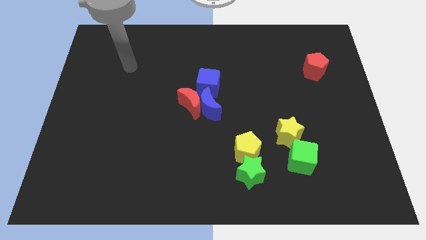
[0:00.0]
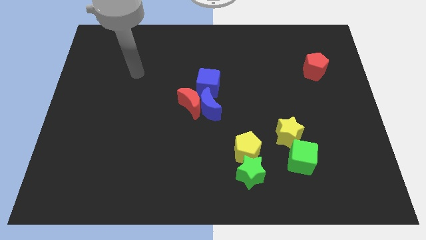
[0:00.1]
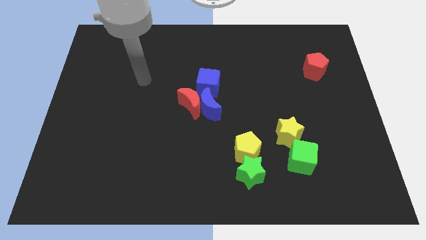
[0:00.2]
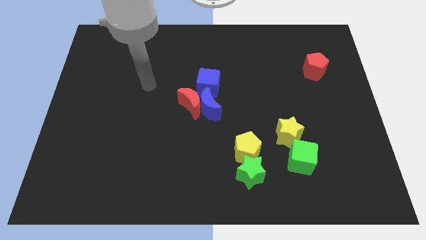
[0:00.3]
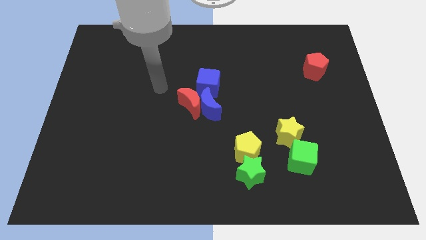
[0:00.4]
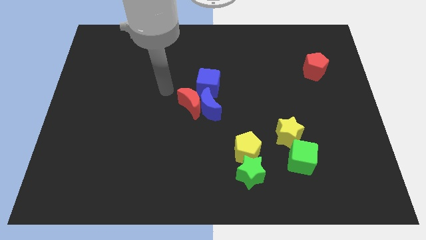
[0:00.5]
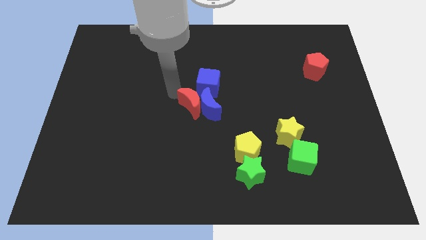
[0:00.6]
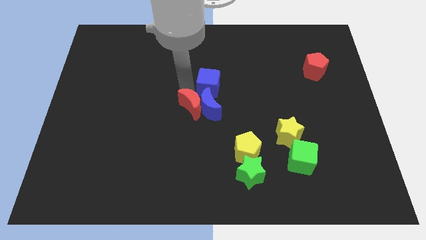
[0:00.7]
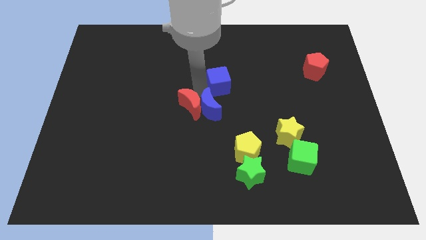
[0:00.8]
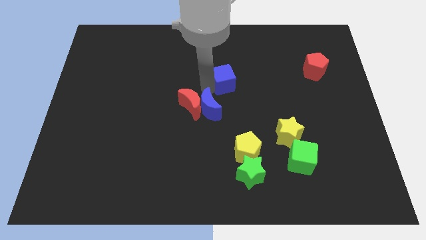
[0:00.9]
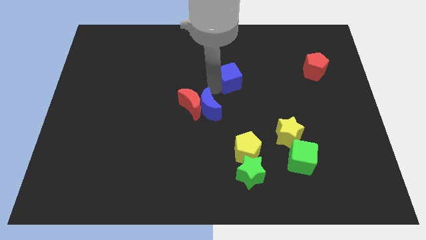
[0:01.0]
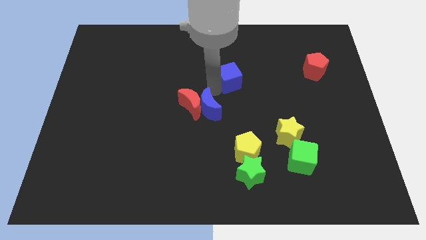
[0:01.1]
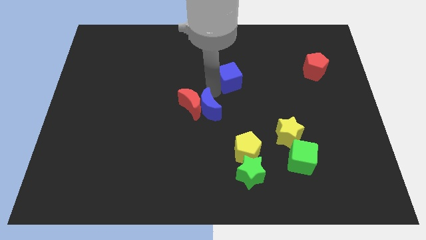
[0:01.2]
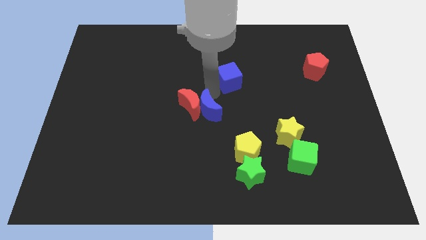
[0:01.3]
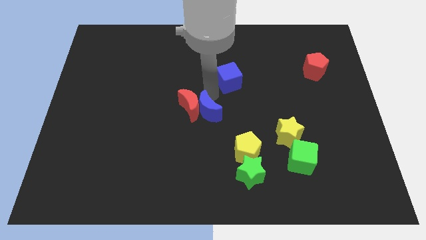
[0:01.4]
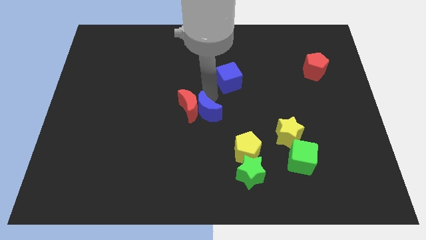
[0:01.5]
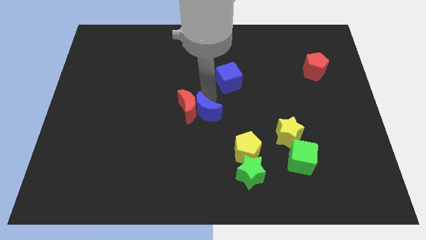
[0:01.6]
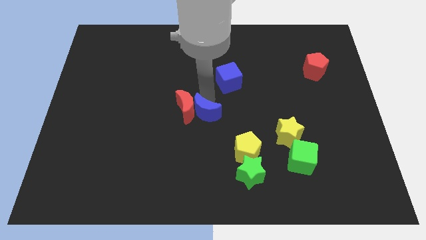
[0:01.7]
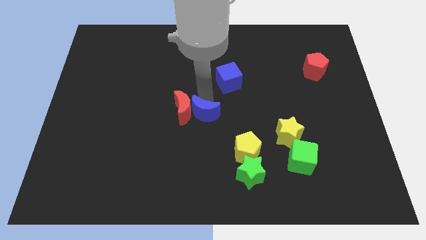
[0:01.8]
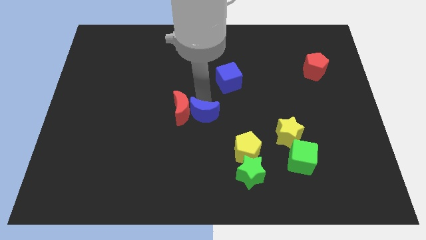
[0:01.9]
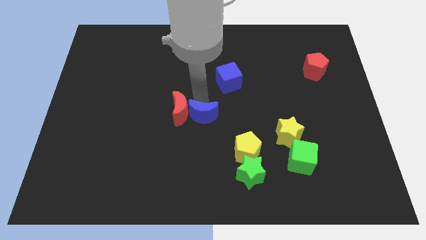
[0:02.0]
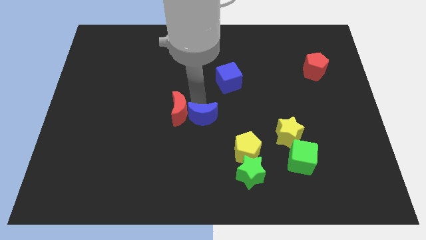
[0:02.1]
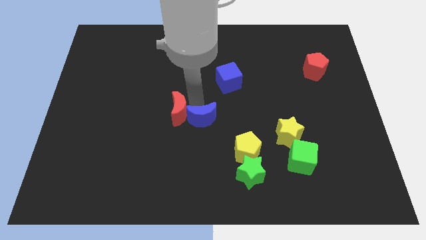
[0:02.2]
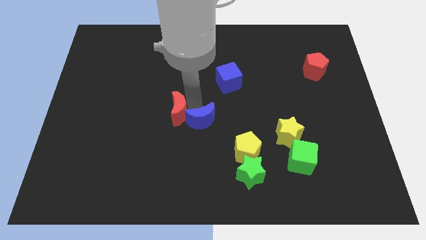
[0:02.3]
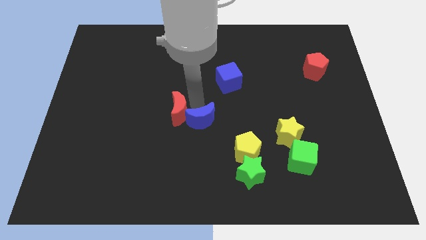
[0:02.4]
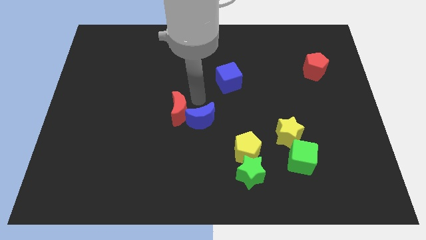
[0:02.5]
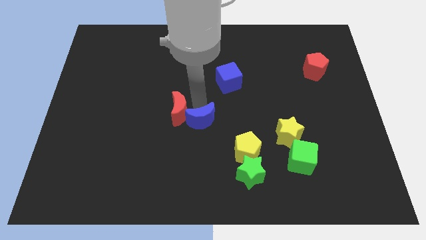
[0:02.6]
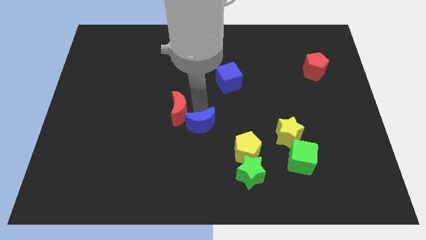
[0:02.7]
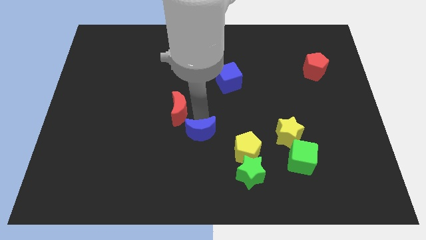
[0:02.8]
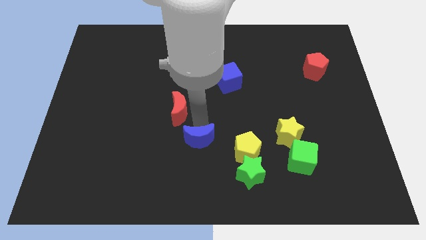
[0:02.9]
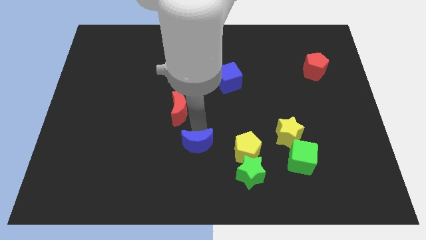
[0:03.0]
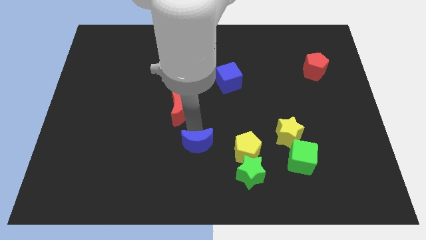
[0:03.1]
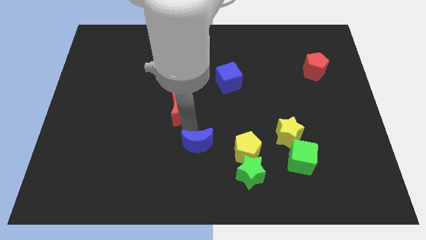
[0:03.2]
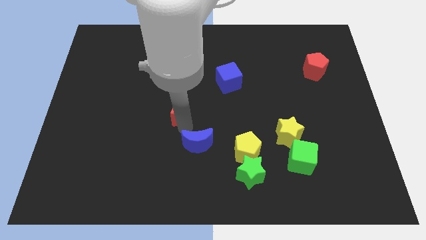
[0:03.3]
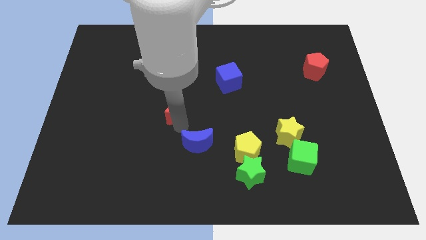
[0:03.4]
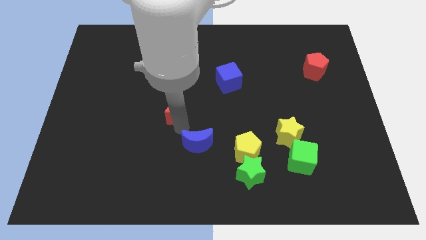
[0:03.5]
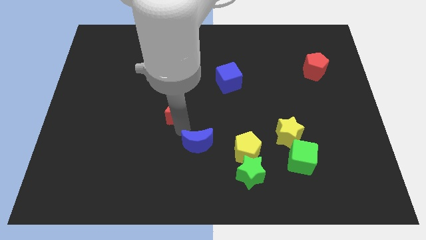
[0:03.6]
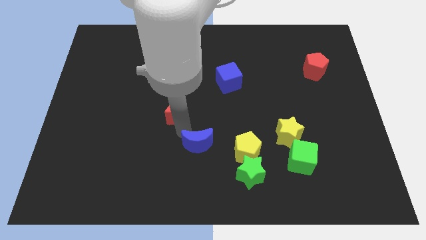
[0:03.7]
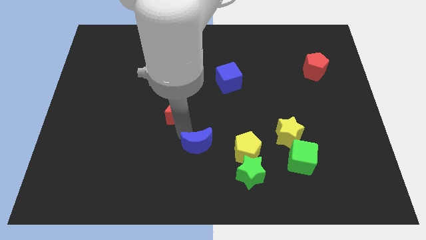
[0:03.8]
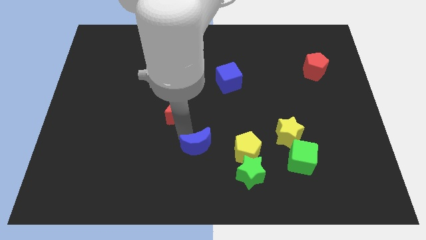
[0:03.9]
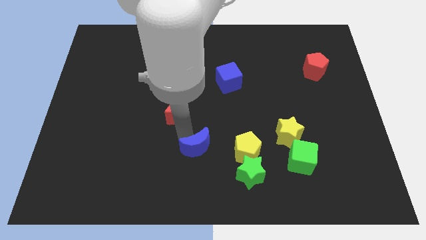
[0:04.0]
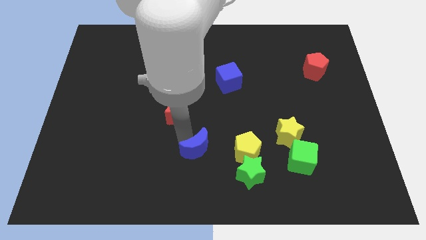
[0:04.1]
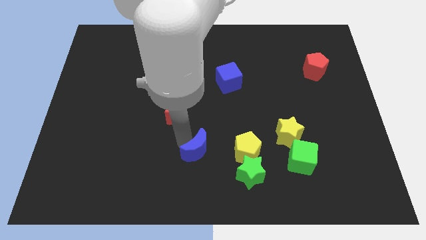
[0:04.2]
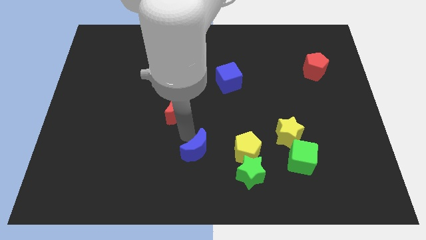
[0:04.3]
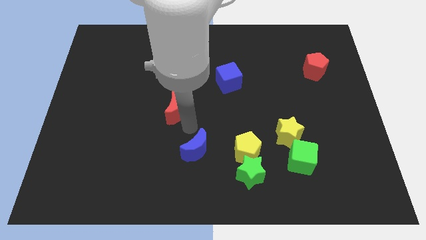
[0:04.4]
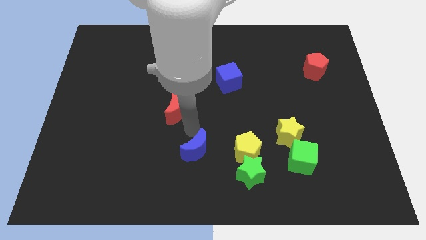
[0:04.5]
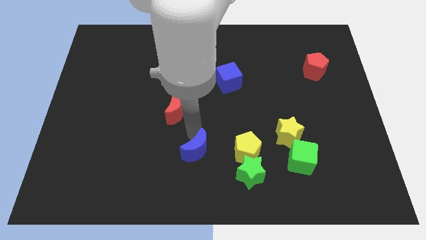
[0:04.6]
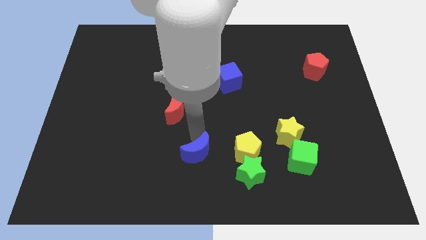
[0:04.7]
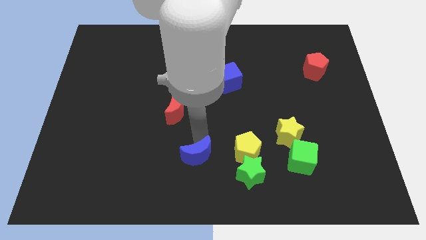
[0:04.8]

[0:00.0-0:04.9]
put the blue moon to the bottom side

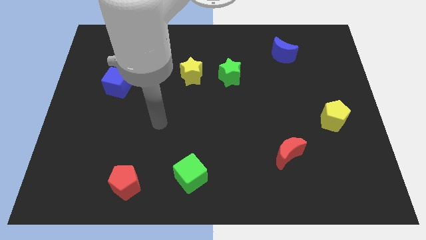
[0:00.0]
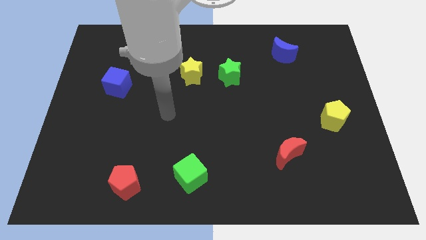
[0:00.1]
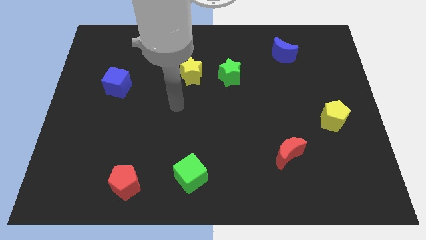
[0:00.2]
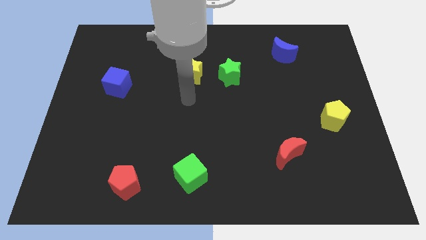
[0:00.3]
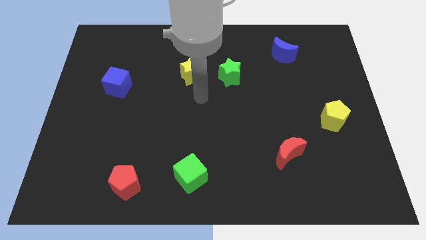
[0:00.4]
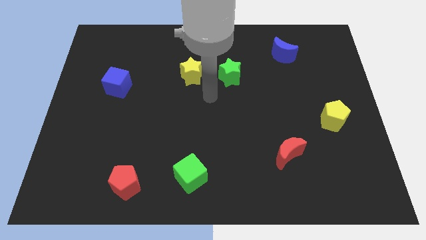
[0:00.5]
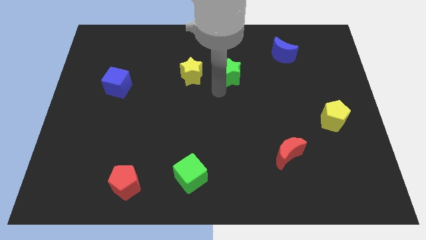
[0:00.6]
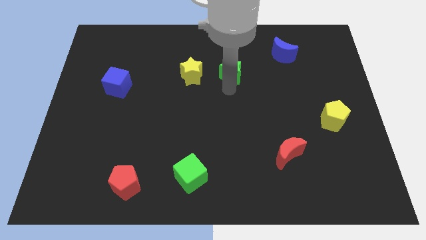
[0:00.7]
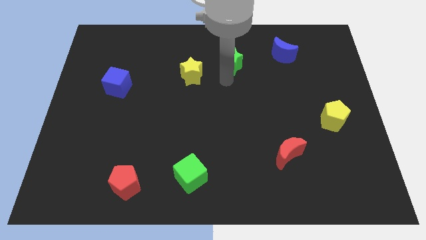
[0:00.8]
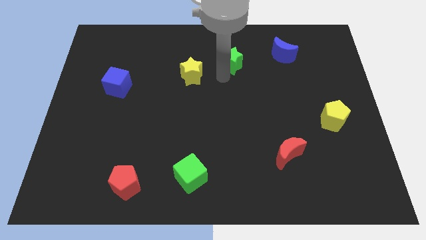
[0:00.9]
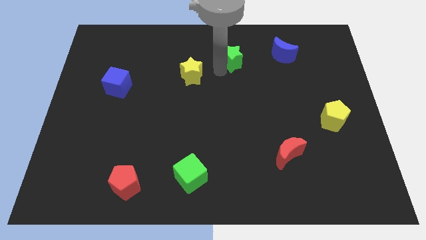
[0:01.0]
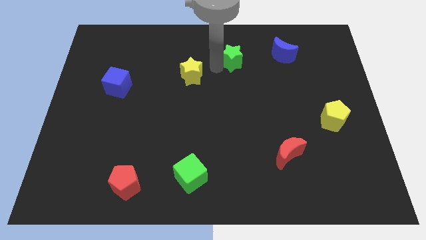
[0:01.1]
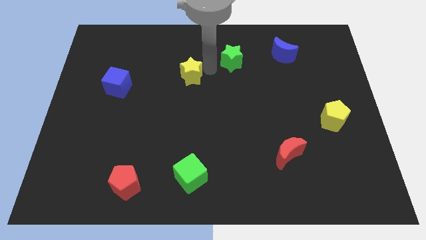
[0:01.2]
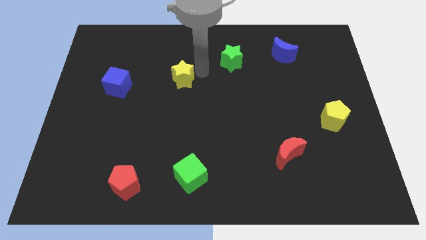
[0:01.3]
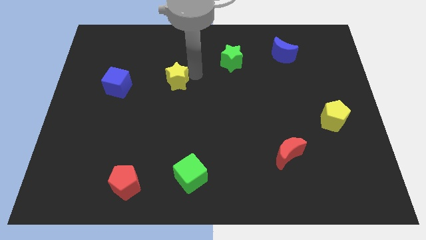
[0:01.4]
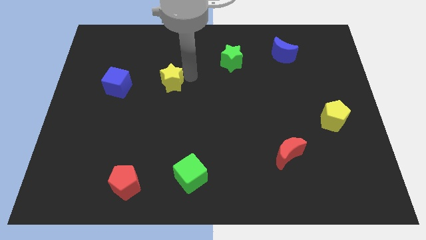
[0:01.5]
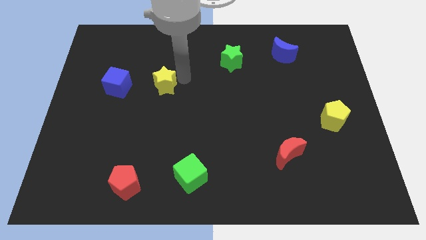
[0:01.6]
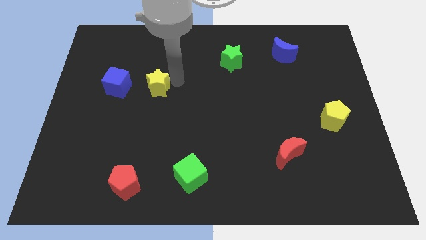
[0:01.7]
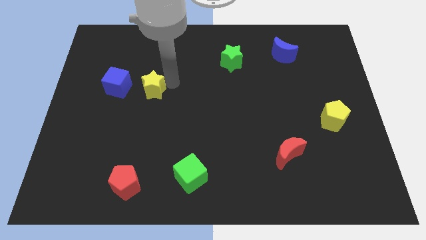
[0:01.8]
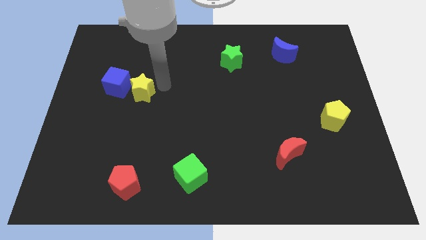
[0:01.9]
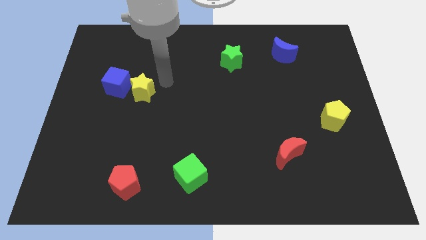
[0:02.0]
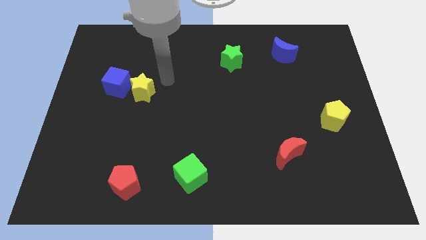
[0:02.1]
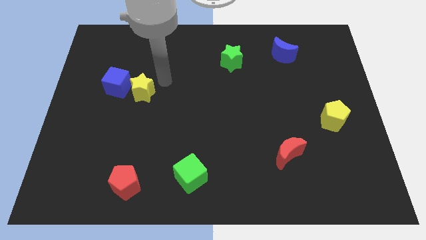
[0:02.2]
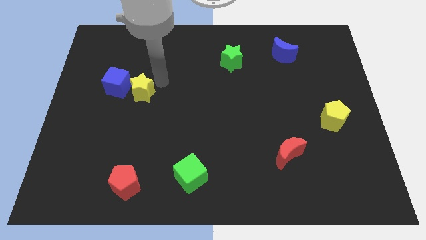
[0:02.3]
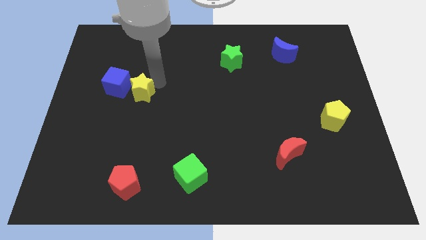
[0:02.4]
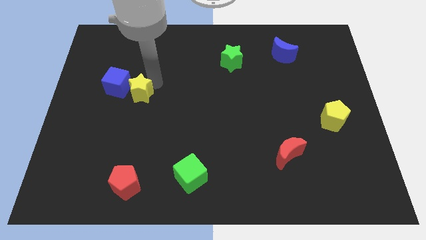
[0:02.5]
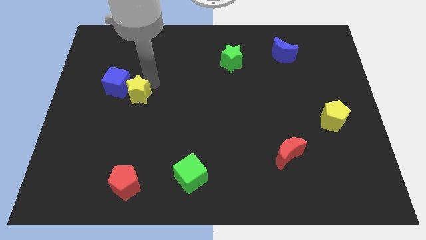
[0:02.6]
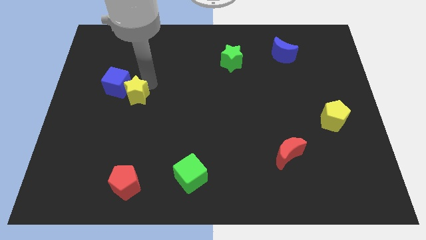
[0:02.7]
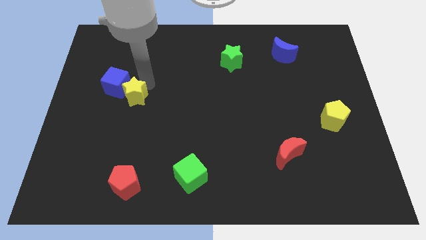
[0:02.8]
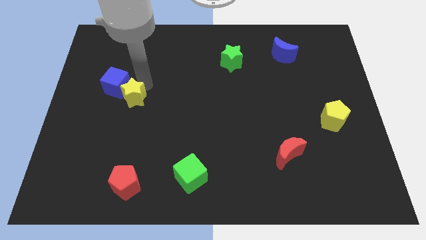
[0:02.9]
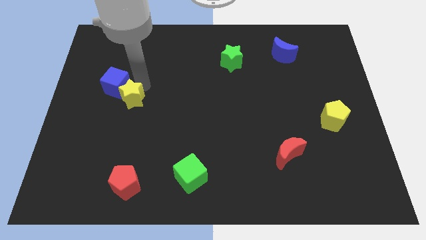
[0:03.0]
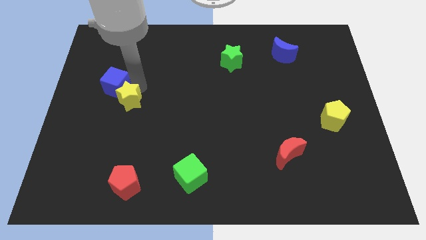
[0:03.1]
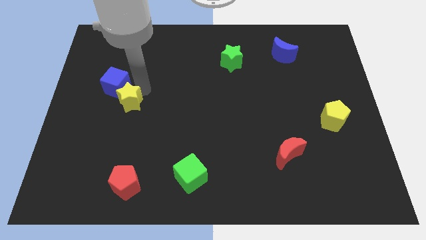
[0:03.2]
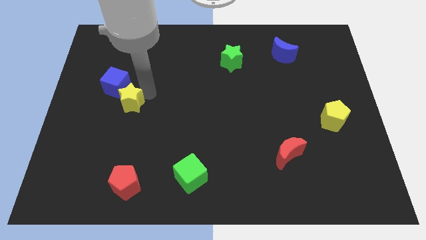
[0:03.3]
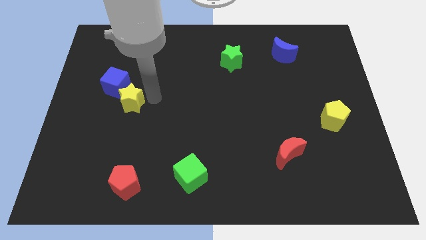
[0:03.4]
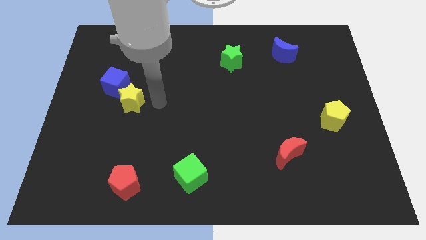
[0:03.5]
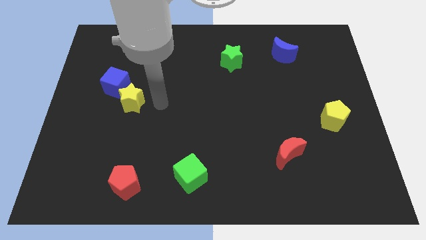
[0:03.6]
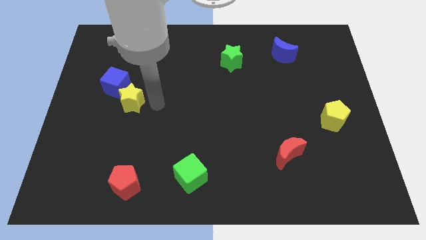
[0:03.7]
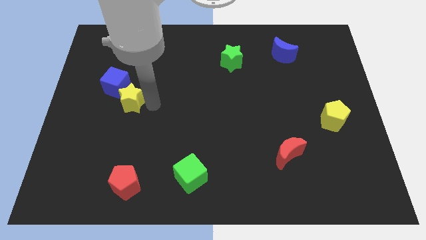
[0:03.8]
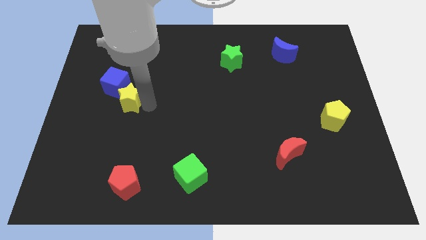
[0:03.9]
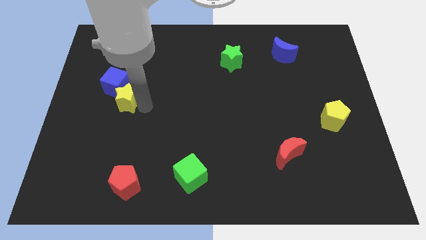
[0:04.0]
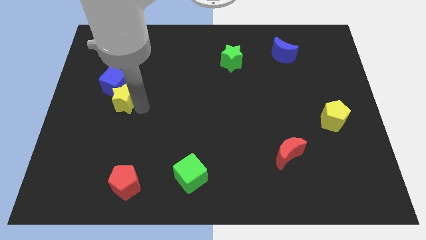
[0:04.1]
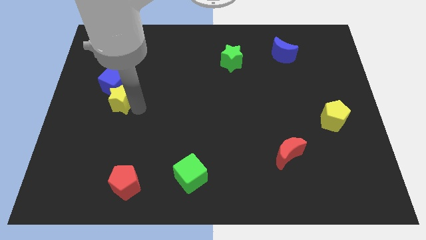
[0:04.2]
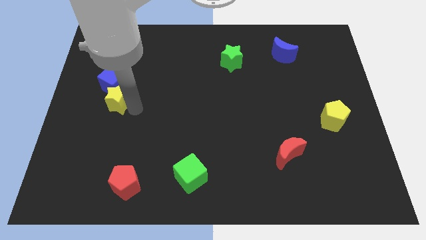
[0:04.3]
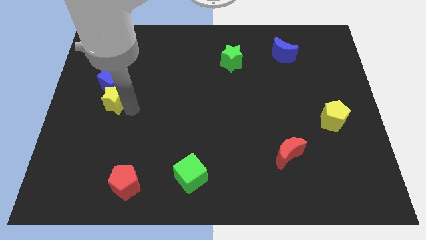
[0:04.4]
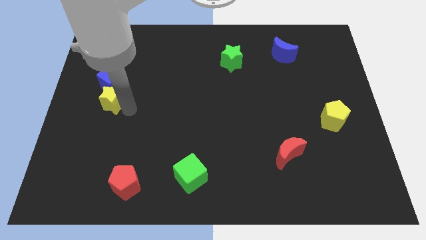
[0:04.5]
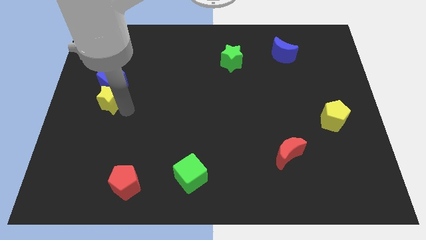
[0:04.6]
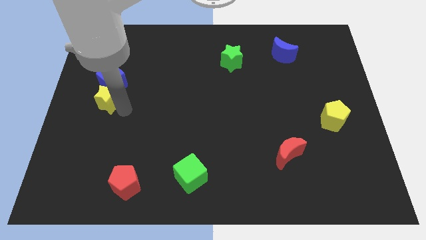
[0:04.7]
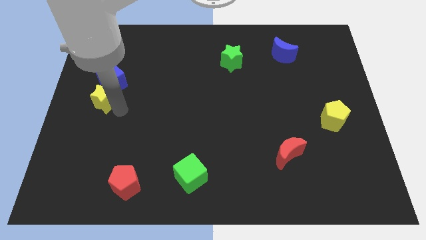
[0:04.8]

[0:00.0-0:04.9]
slide the yellow star to the center left
